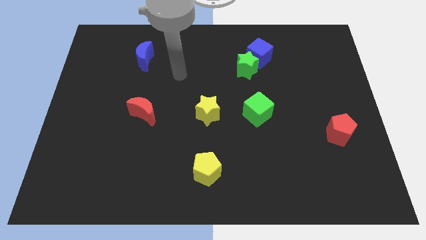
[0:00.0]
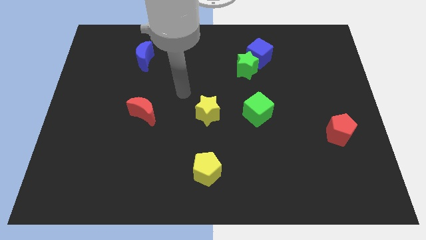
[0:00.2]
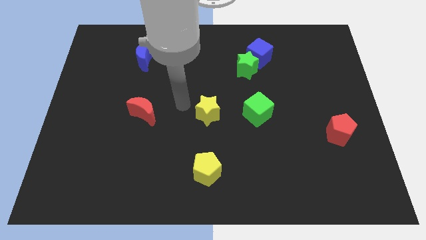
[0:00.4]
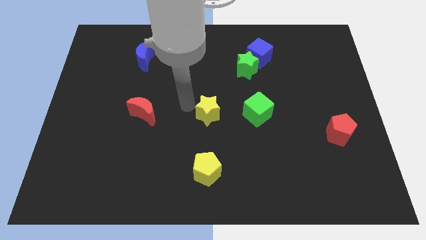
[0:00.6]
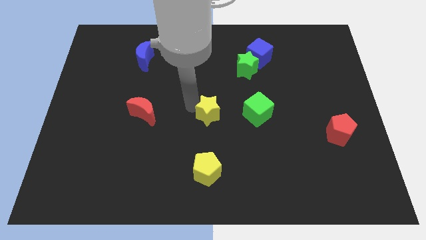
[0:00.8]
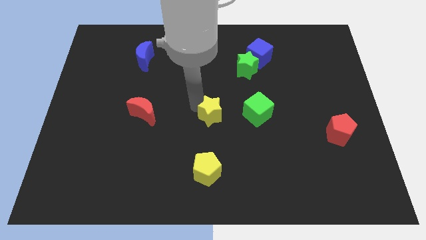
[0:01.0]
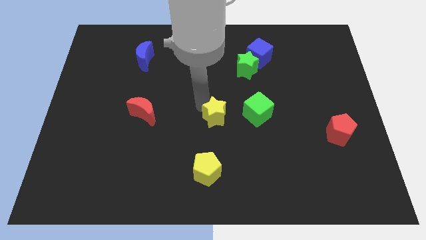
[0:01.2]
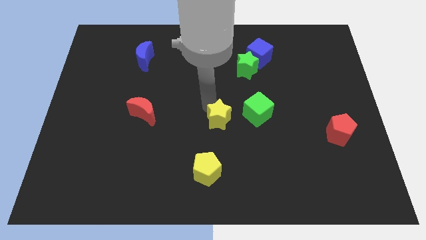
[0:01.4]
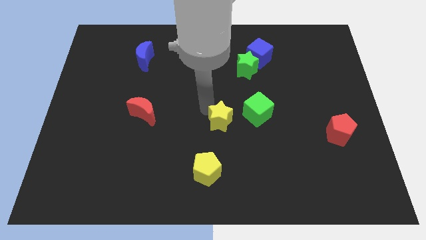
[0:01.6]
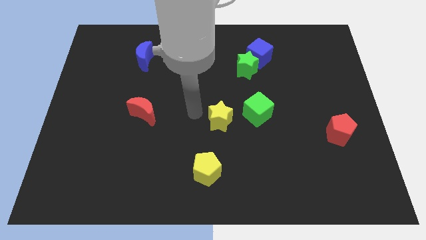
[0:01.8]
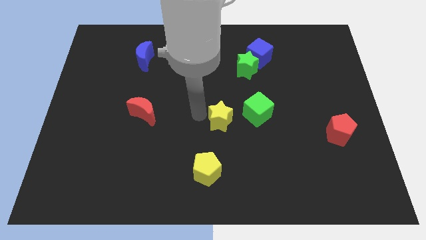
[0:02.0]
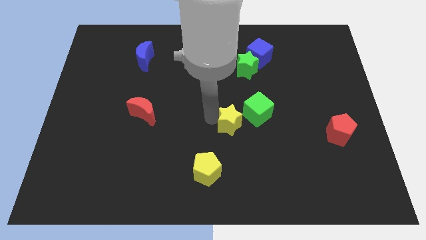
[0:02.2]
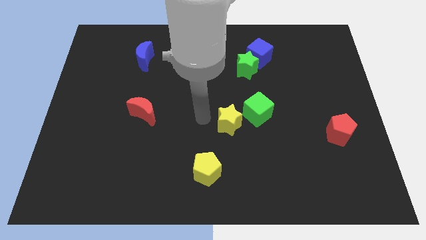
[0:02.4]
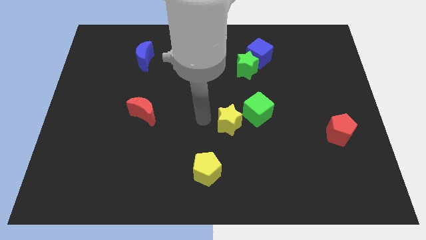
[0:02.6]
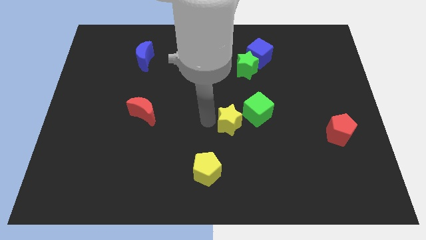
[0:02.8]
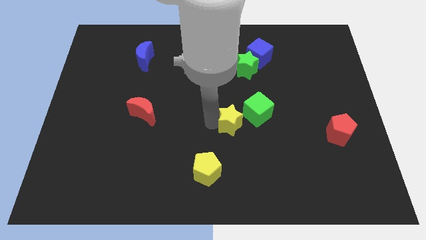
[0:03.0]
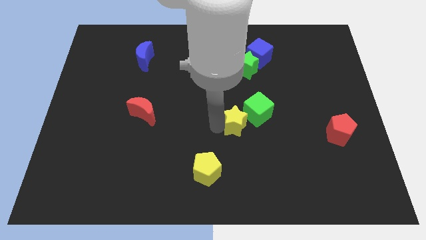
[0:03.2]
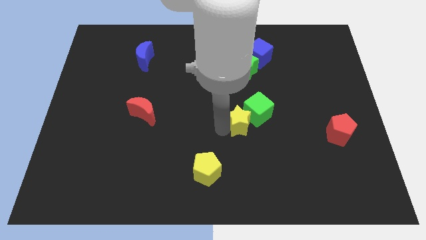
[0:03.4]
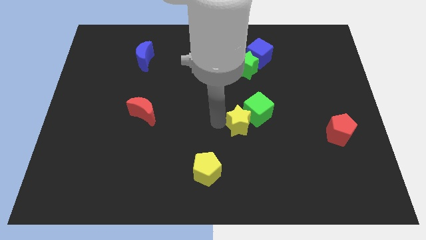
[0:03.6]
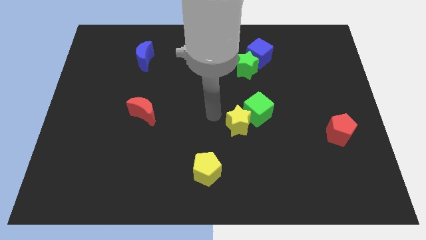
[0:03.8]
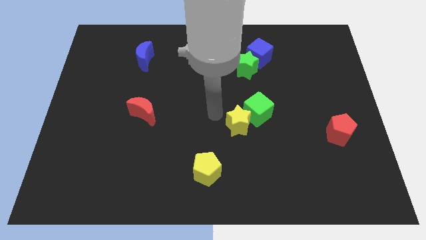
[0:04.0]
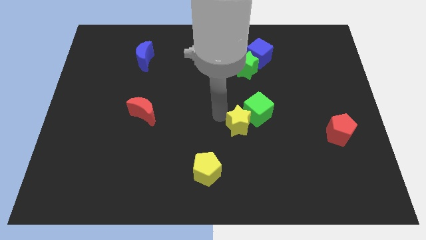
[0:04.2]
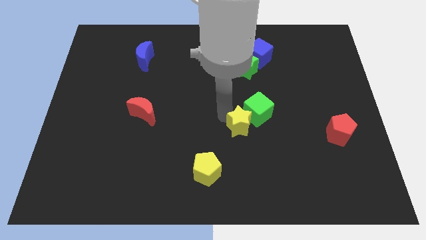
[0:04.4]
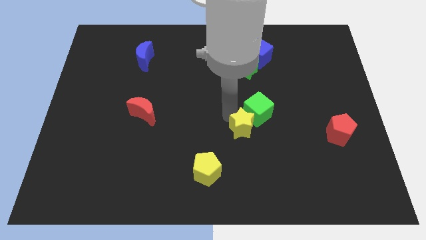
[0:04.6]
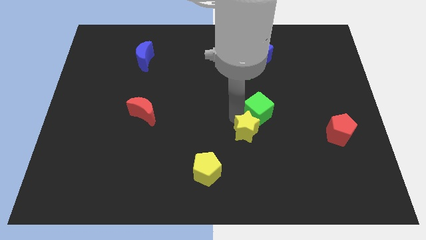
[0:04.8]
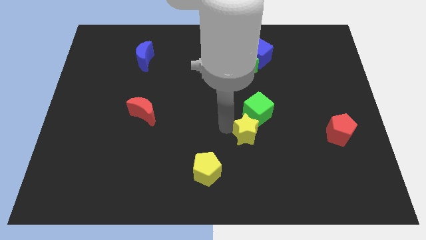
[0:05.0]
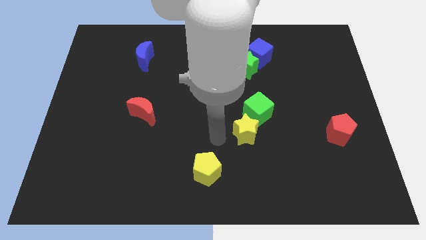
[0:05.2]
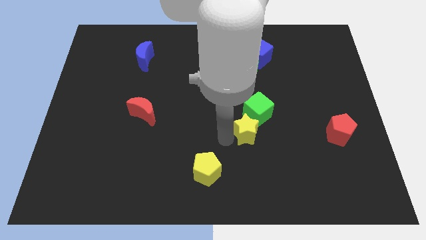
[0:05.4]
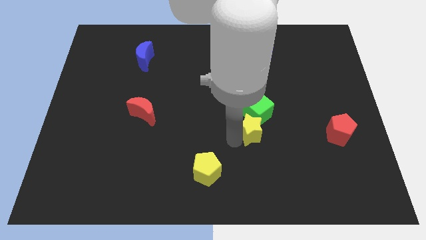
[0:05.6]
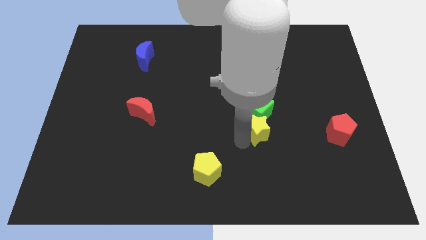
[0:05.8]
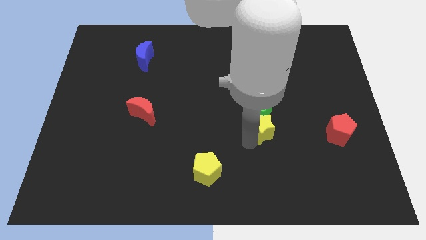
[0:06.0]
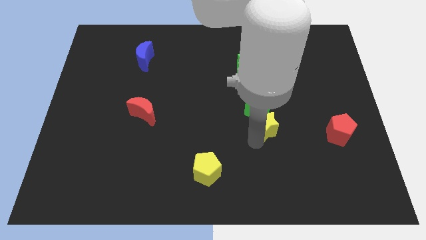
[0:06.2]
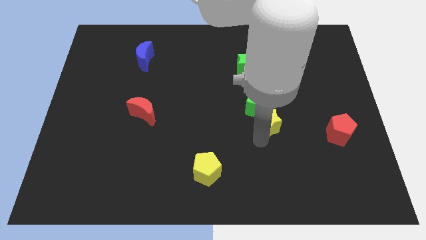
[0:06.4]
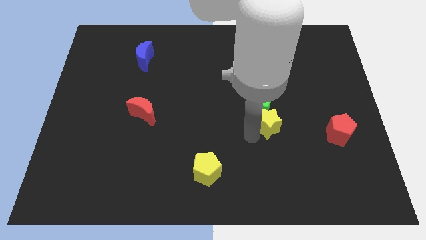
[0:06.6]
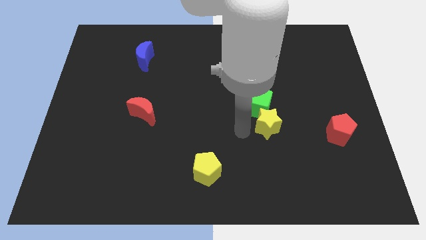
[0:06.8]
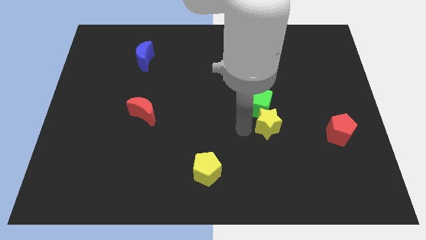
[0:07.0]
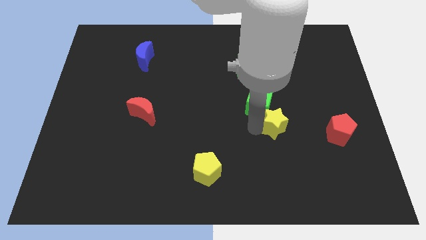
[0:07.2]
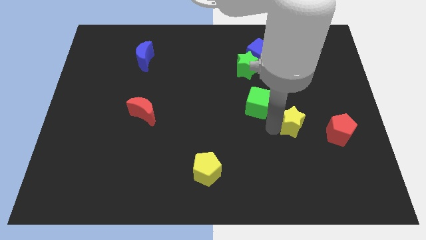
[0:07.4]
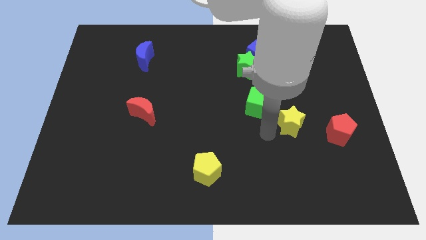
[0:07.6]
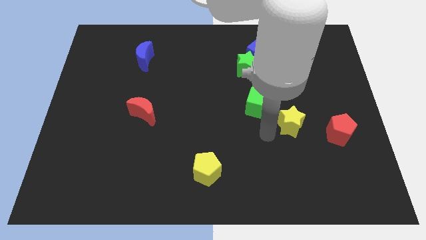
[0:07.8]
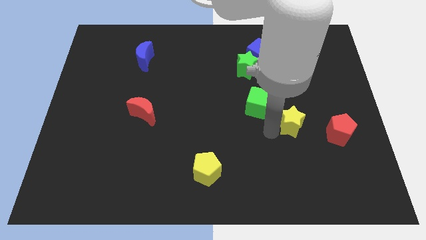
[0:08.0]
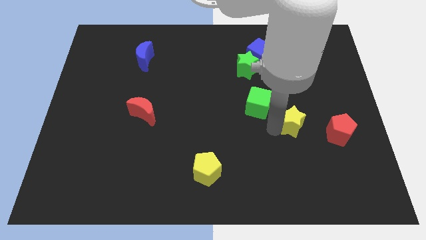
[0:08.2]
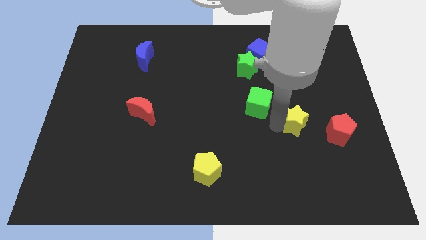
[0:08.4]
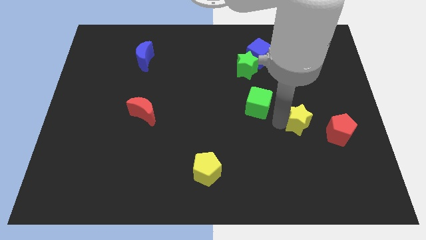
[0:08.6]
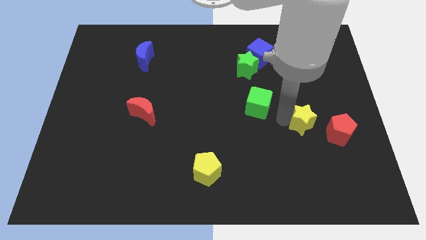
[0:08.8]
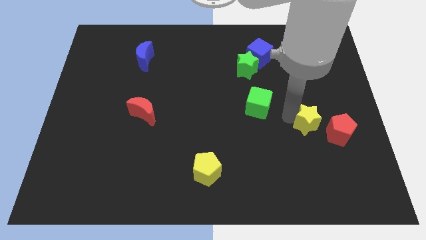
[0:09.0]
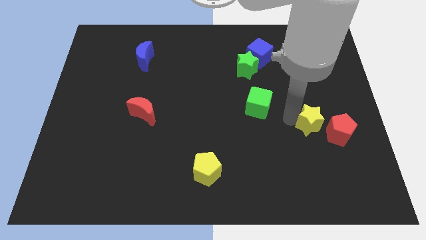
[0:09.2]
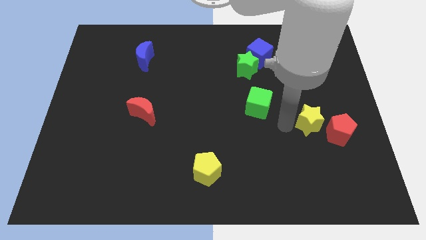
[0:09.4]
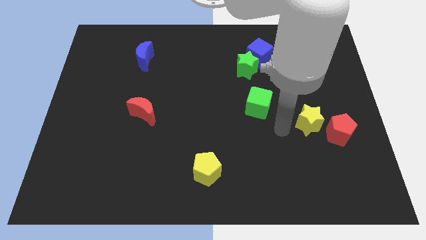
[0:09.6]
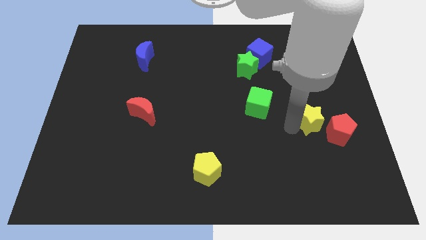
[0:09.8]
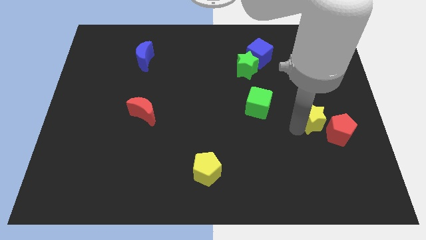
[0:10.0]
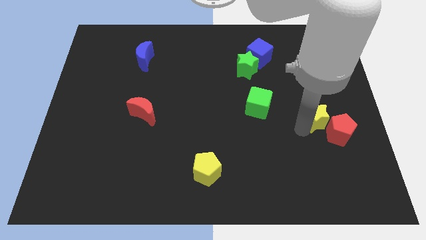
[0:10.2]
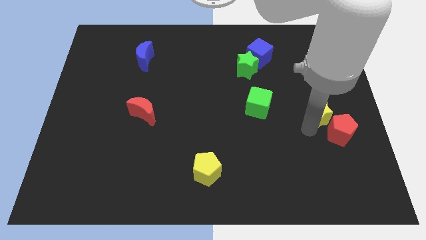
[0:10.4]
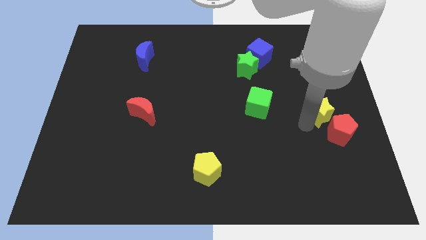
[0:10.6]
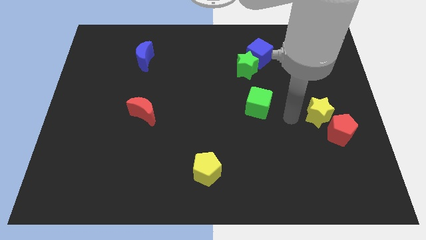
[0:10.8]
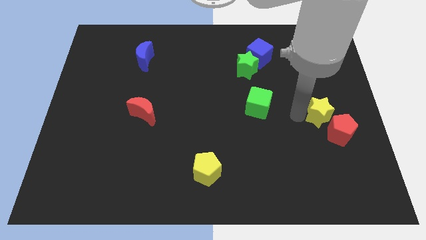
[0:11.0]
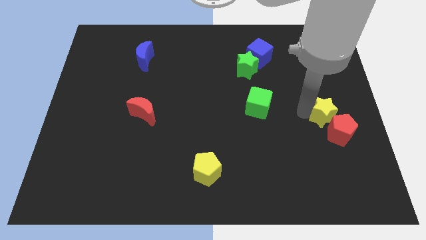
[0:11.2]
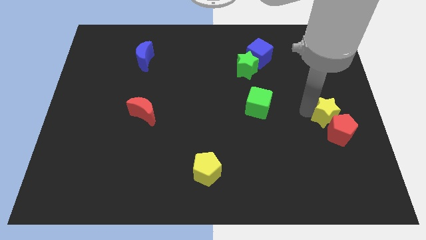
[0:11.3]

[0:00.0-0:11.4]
put the yellow star to the right side
